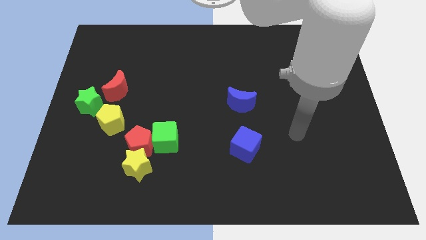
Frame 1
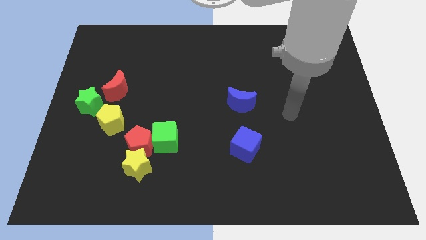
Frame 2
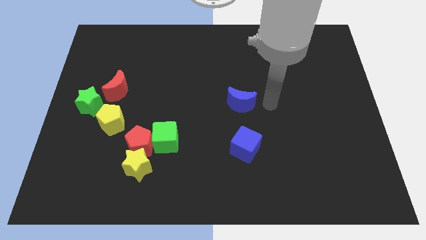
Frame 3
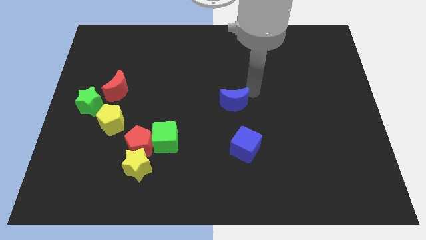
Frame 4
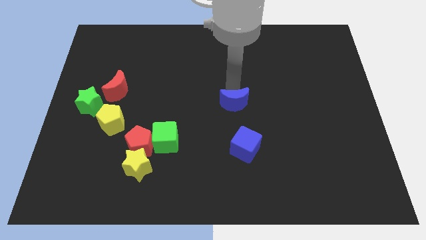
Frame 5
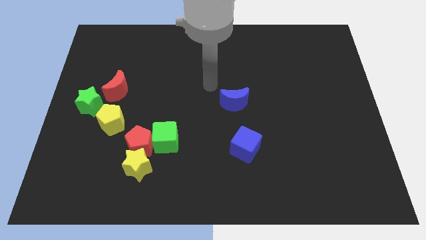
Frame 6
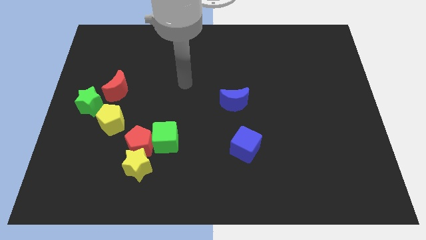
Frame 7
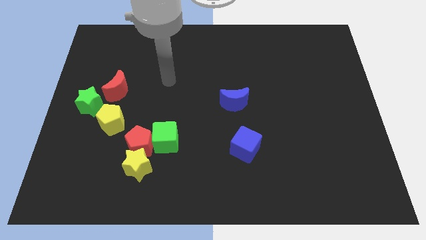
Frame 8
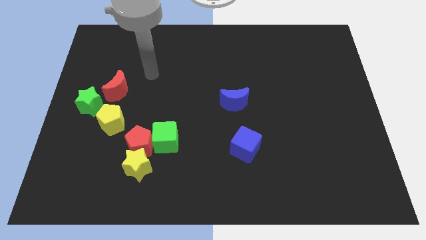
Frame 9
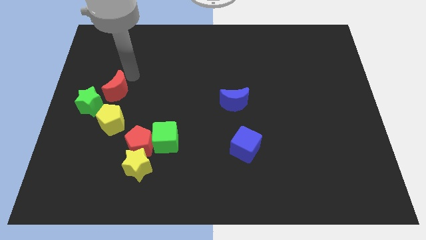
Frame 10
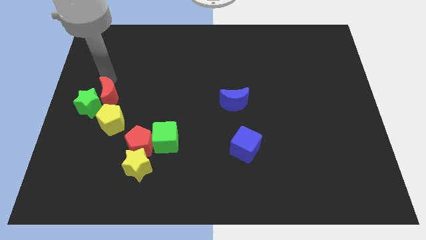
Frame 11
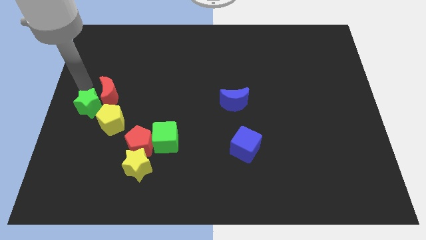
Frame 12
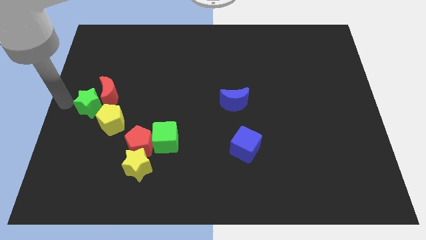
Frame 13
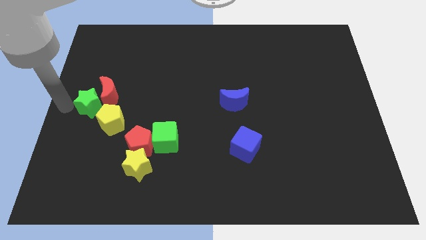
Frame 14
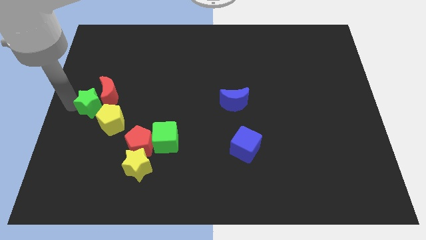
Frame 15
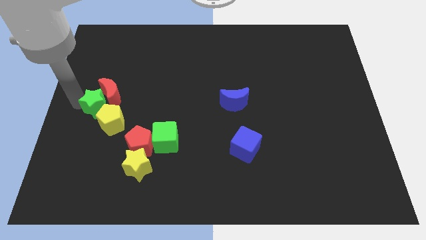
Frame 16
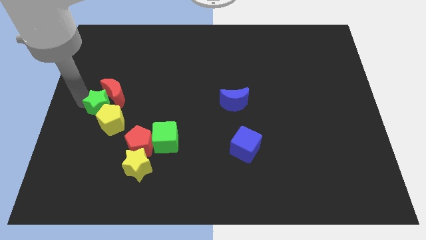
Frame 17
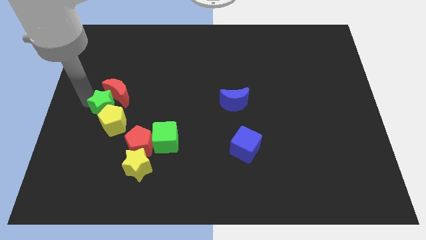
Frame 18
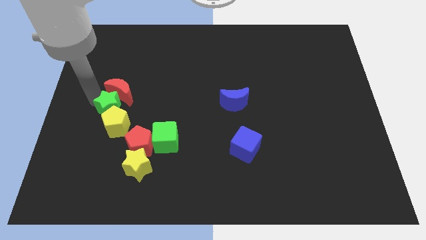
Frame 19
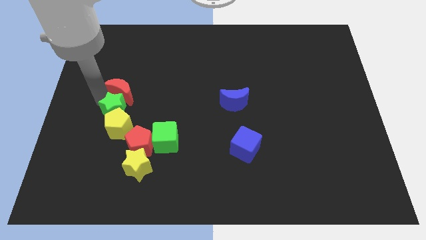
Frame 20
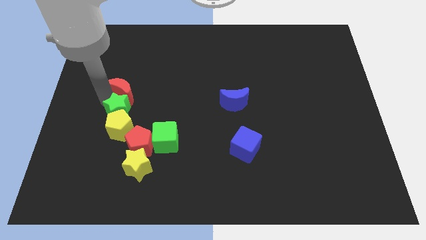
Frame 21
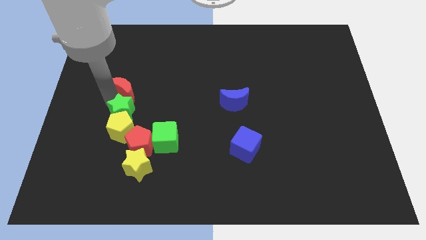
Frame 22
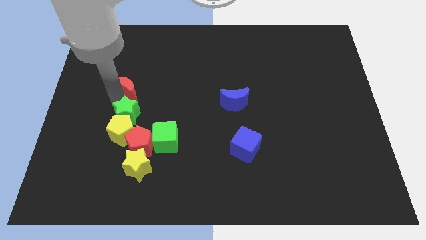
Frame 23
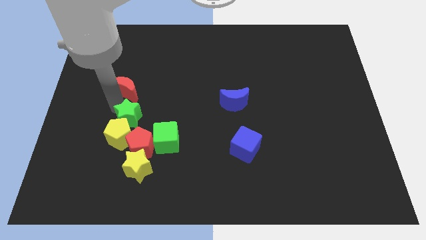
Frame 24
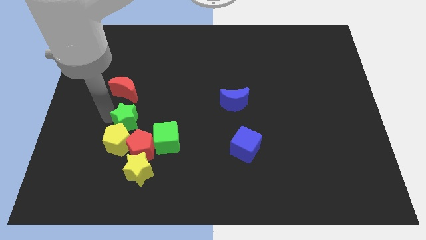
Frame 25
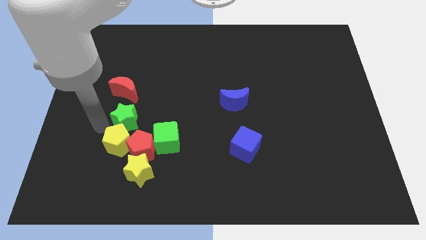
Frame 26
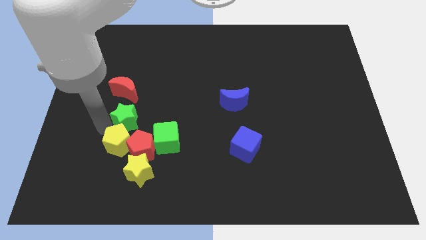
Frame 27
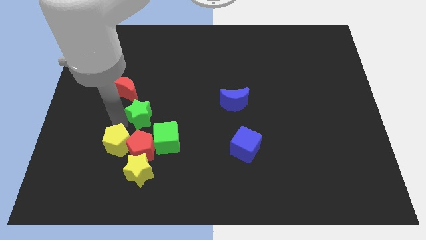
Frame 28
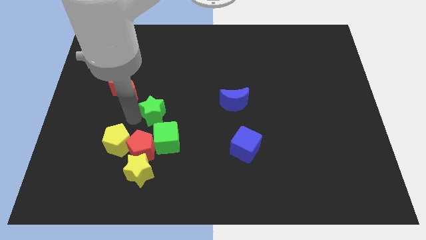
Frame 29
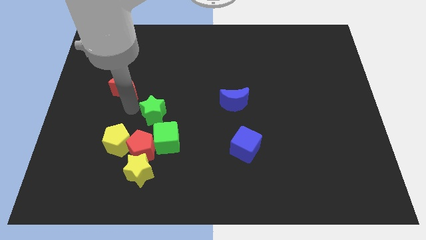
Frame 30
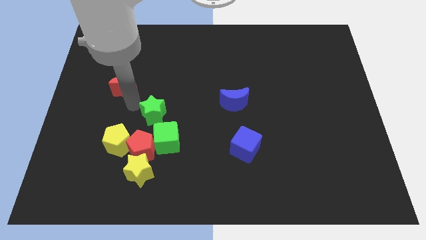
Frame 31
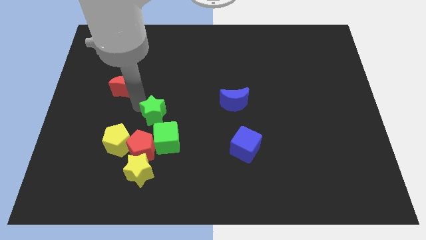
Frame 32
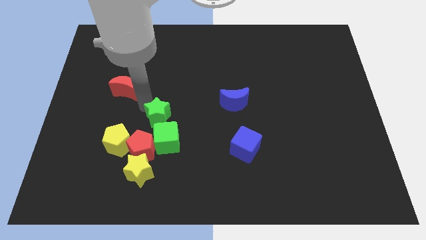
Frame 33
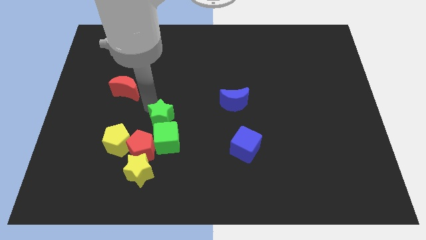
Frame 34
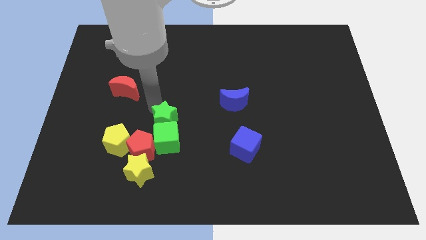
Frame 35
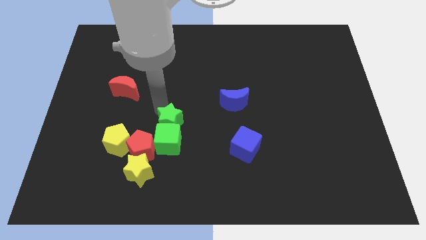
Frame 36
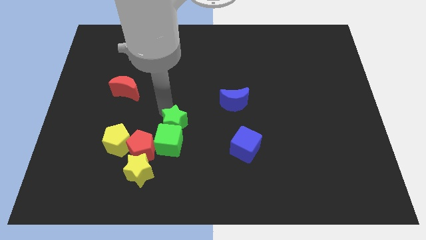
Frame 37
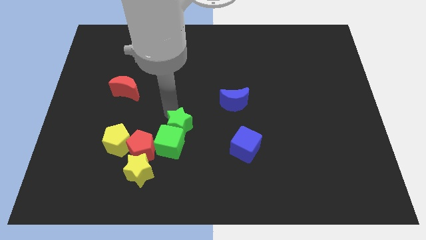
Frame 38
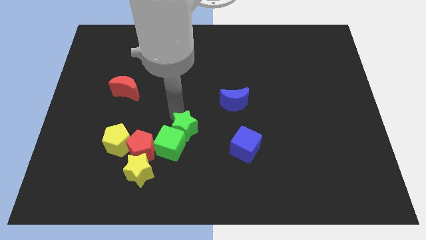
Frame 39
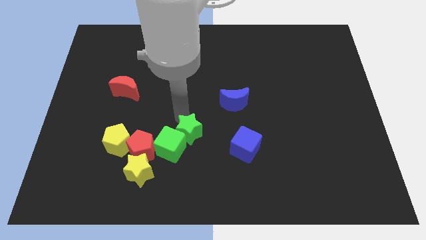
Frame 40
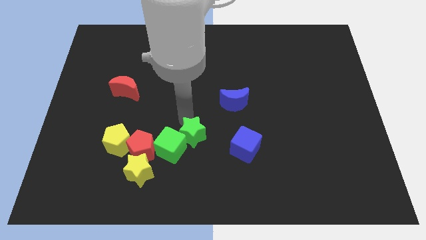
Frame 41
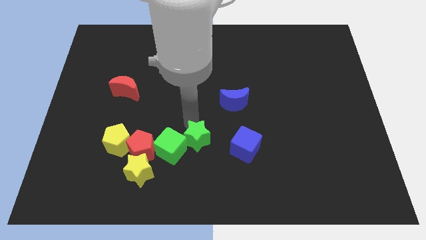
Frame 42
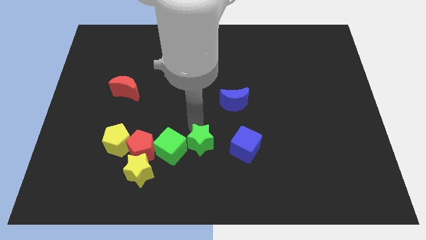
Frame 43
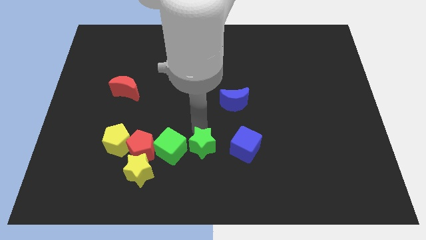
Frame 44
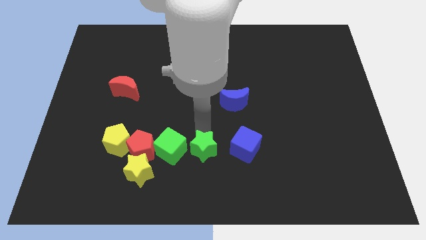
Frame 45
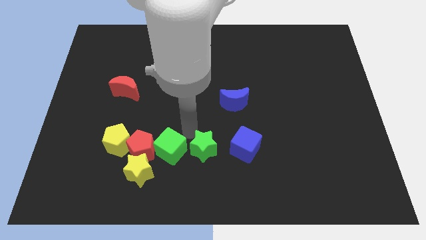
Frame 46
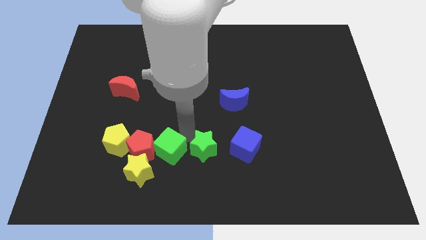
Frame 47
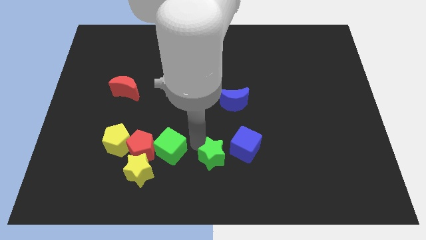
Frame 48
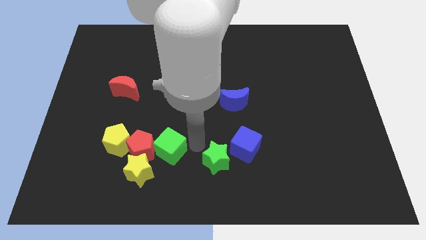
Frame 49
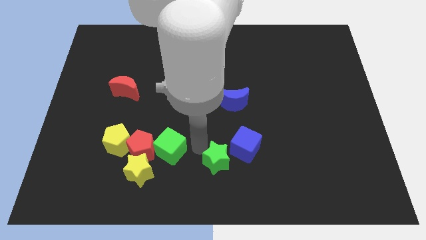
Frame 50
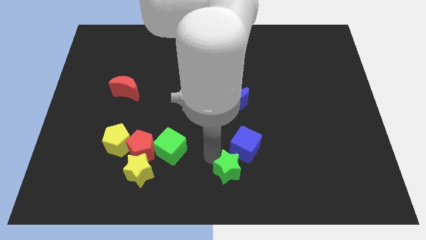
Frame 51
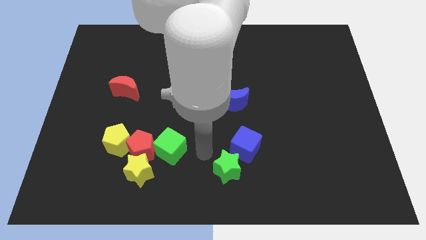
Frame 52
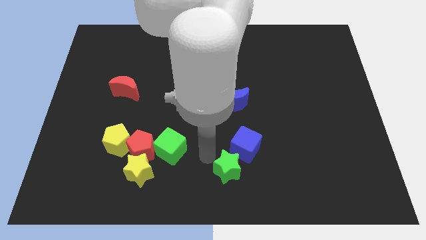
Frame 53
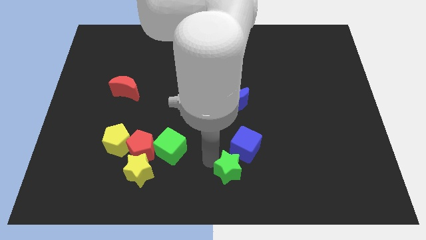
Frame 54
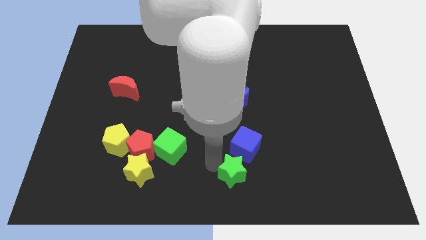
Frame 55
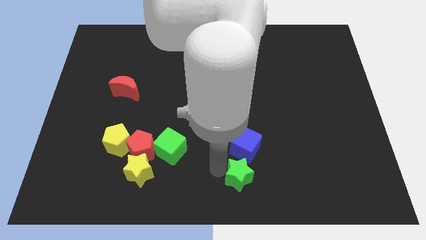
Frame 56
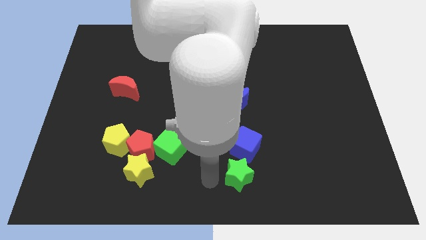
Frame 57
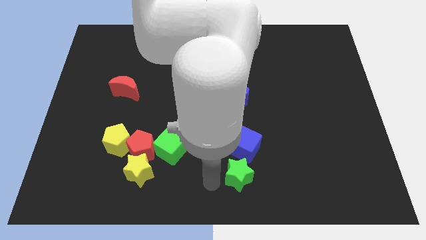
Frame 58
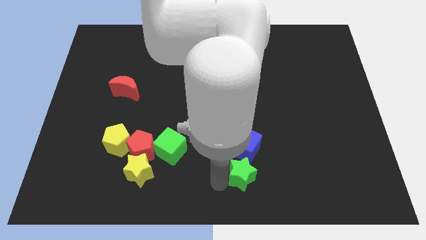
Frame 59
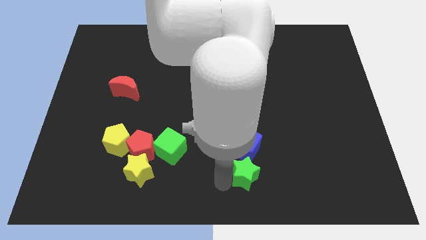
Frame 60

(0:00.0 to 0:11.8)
push the green star to the bottom right of the blue cube

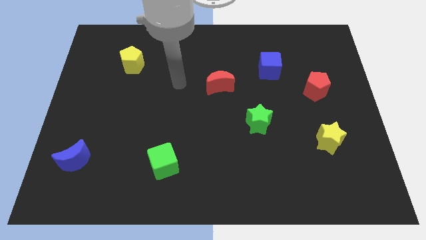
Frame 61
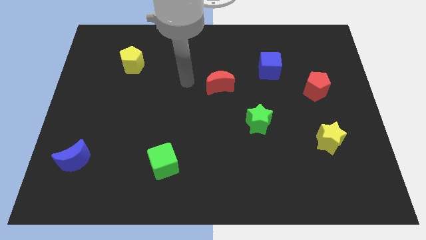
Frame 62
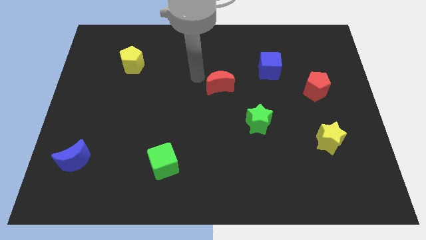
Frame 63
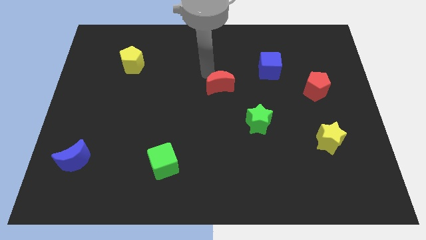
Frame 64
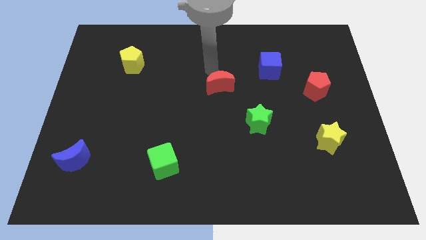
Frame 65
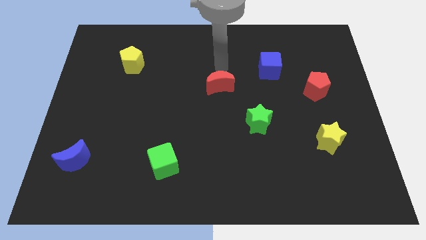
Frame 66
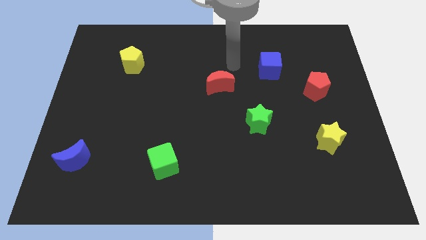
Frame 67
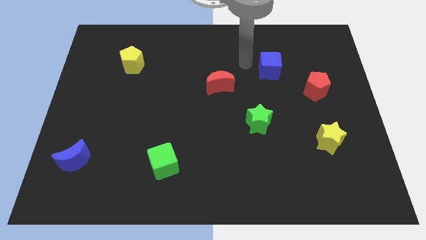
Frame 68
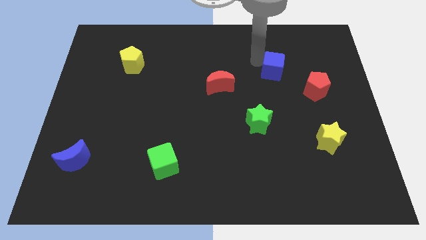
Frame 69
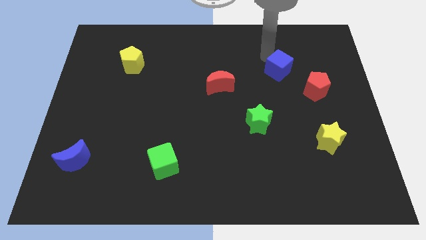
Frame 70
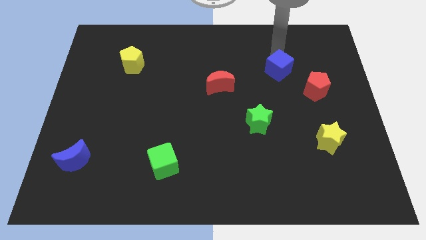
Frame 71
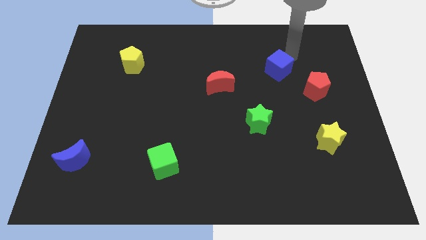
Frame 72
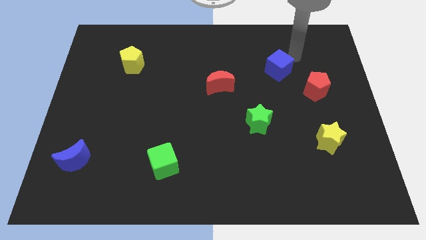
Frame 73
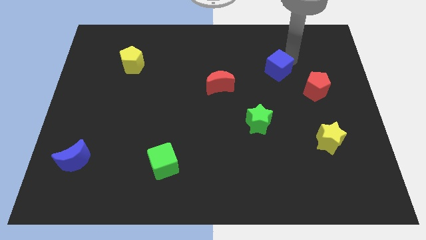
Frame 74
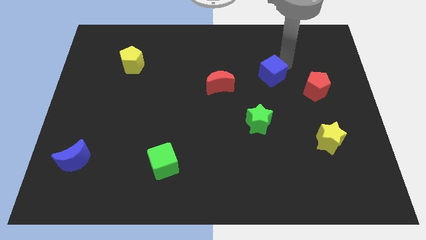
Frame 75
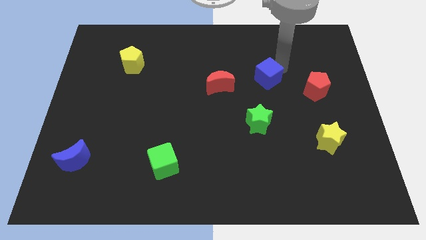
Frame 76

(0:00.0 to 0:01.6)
move the blue cube to the top side of the green star
